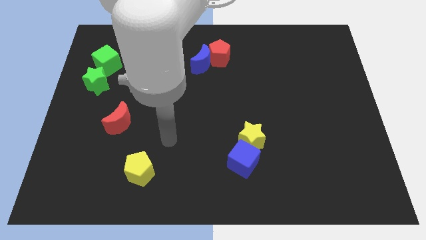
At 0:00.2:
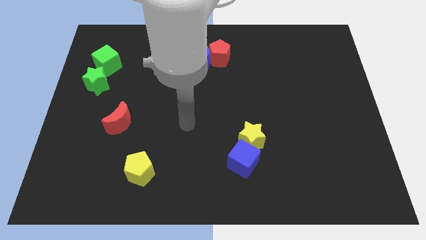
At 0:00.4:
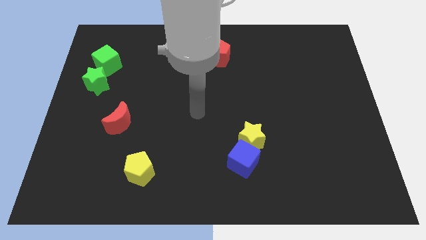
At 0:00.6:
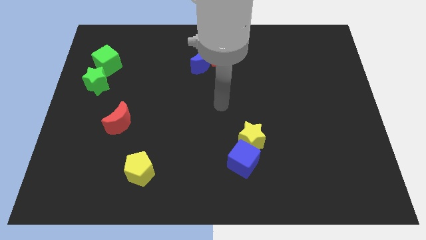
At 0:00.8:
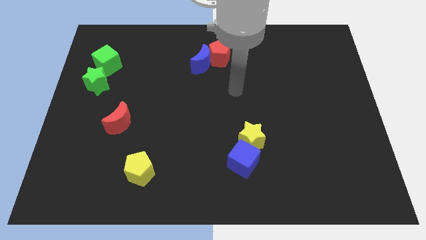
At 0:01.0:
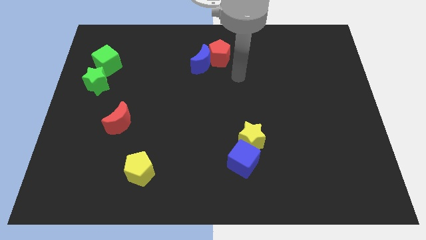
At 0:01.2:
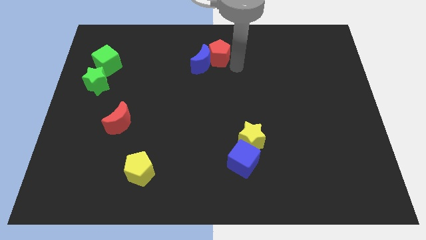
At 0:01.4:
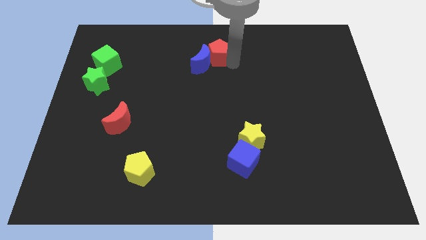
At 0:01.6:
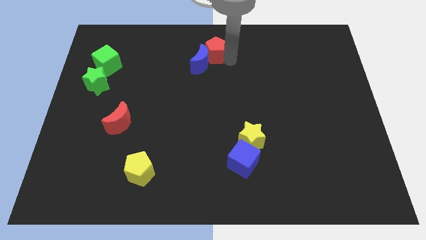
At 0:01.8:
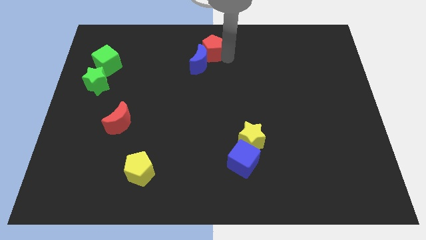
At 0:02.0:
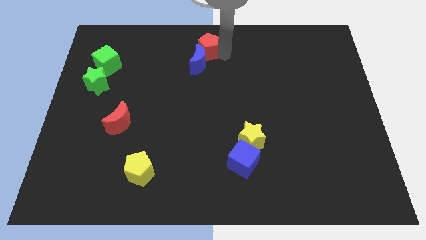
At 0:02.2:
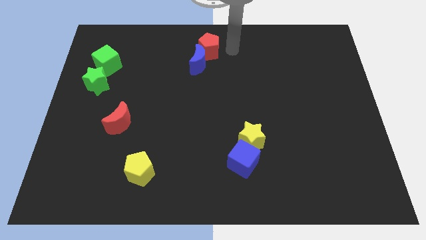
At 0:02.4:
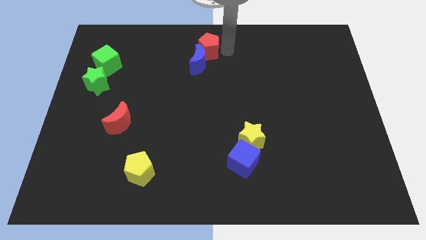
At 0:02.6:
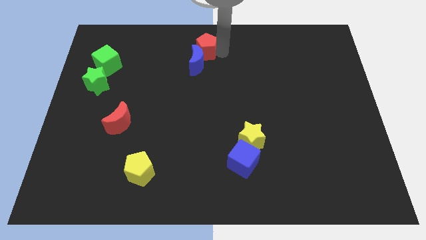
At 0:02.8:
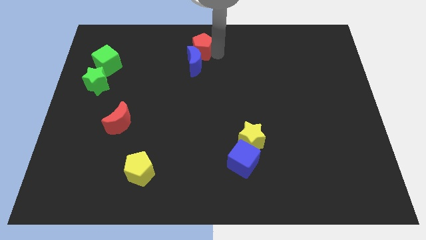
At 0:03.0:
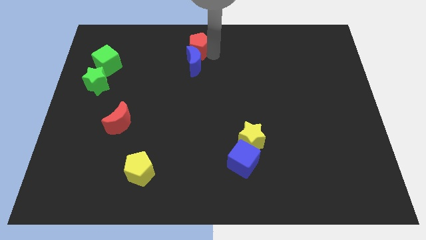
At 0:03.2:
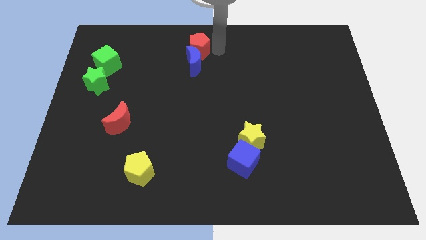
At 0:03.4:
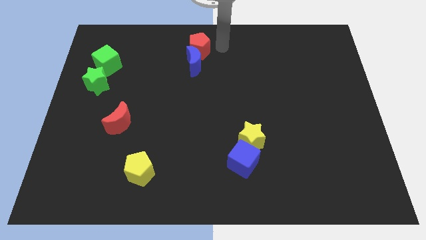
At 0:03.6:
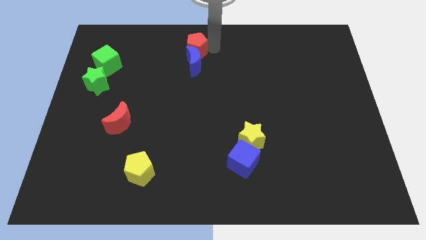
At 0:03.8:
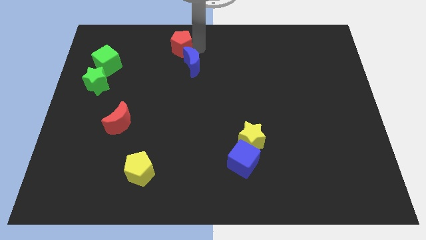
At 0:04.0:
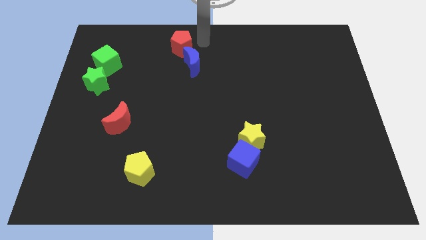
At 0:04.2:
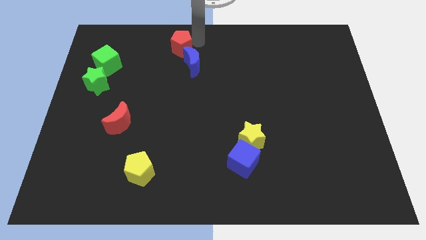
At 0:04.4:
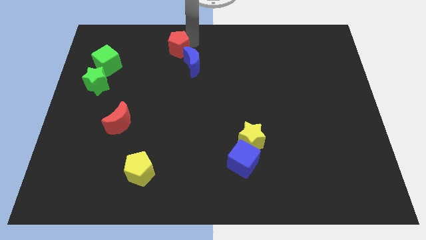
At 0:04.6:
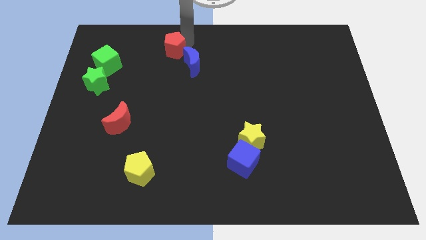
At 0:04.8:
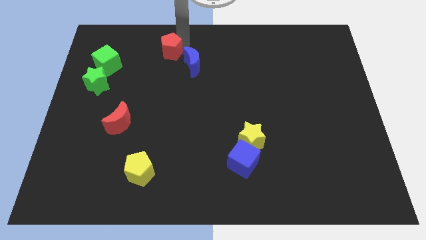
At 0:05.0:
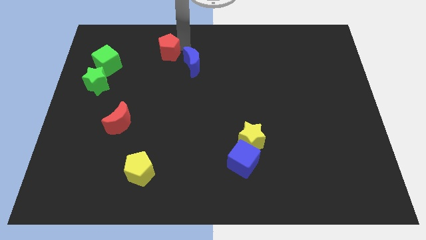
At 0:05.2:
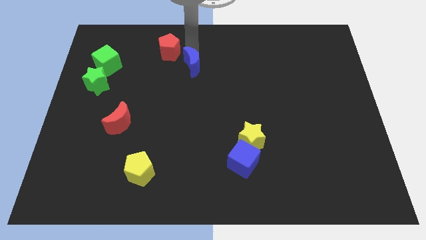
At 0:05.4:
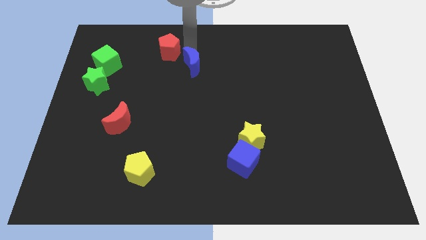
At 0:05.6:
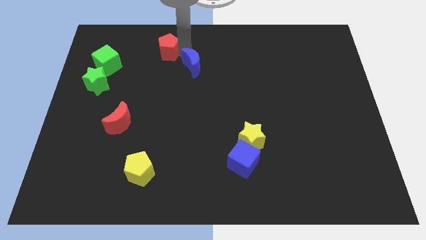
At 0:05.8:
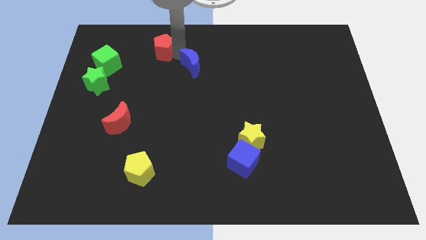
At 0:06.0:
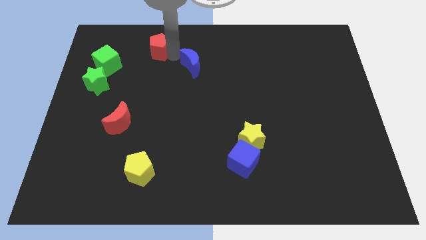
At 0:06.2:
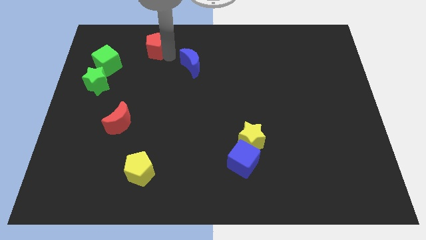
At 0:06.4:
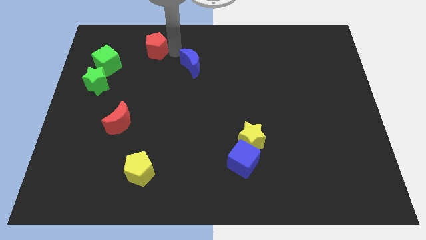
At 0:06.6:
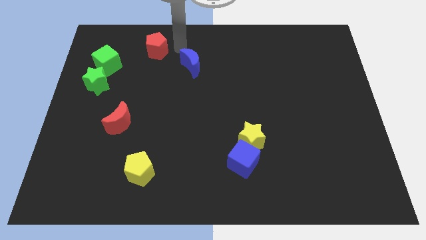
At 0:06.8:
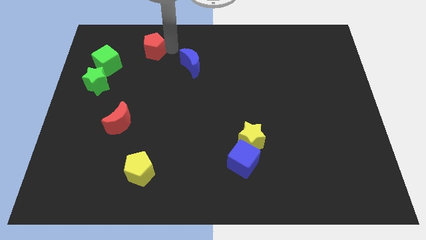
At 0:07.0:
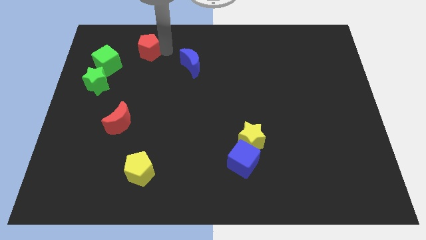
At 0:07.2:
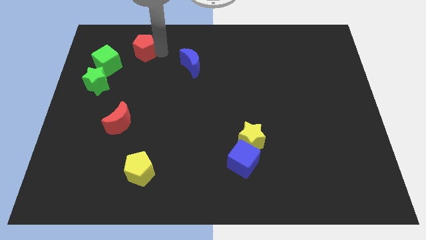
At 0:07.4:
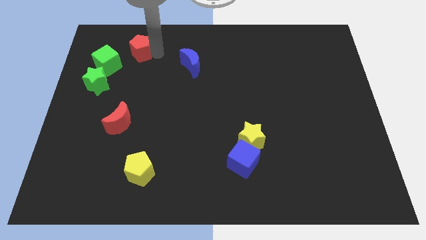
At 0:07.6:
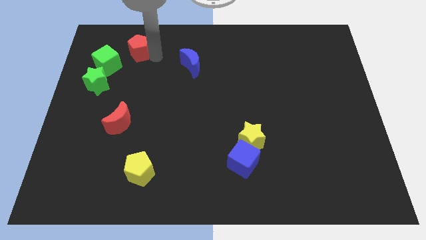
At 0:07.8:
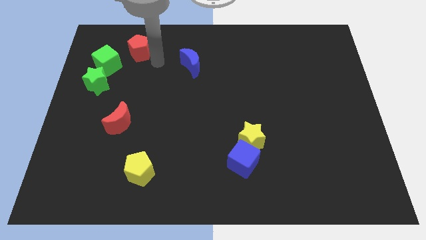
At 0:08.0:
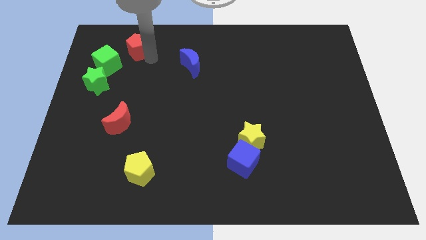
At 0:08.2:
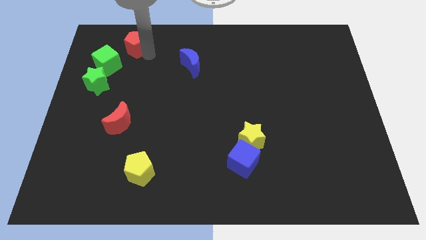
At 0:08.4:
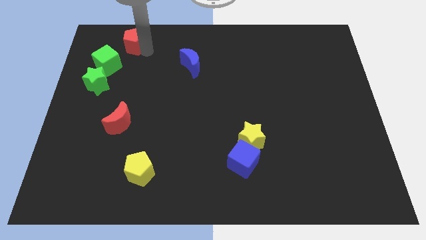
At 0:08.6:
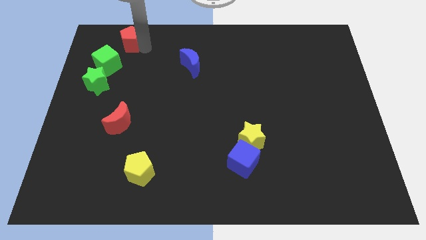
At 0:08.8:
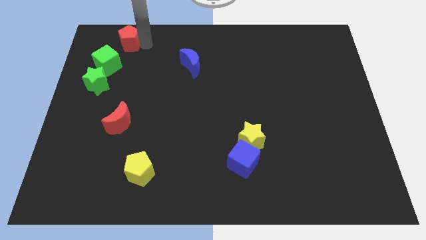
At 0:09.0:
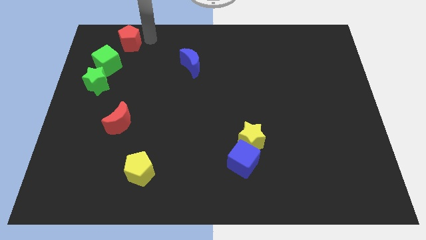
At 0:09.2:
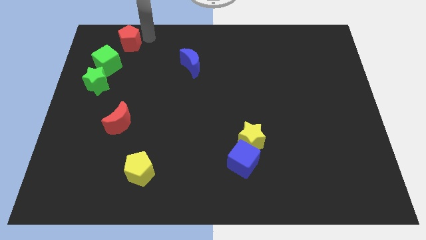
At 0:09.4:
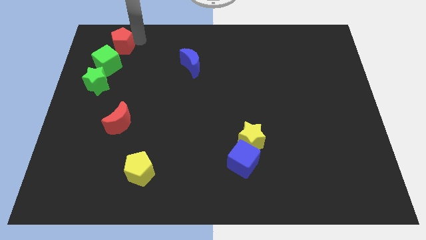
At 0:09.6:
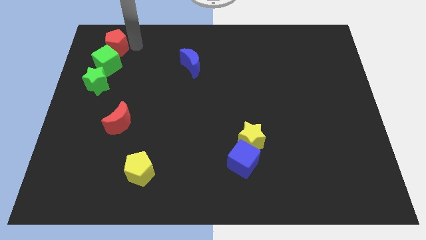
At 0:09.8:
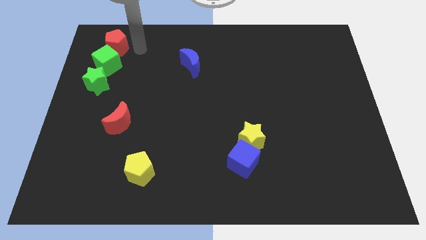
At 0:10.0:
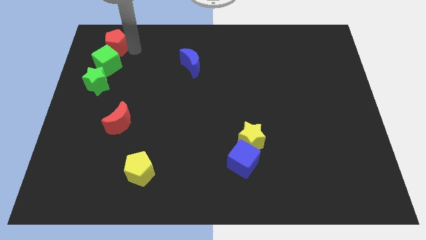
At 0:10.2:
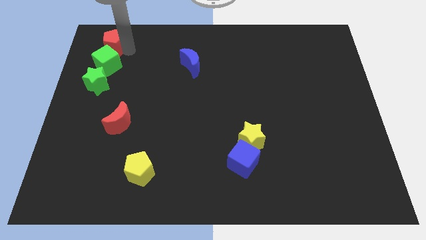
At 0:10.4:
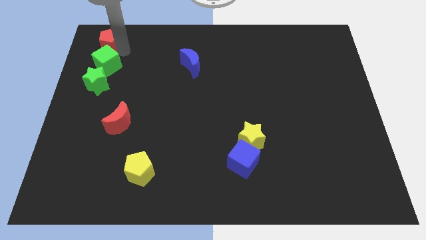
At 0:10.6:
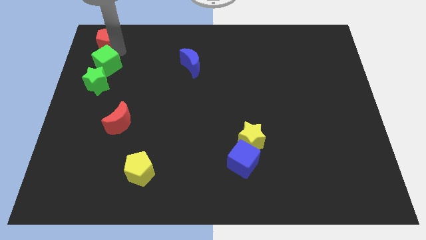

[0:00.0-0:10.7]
put the red pentagon to the top left

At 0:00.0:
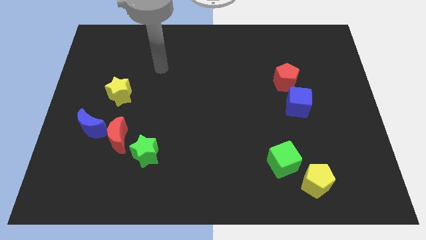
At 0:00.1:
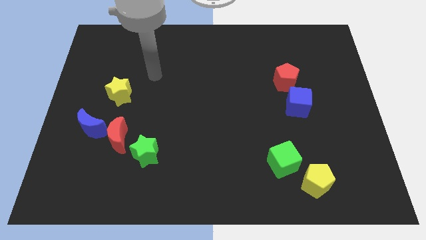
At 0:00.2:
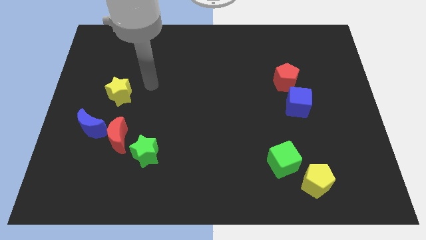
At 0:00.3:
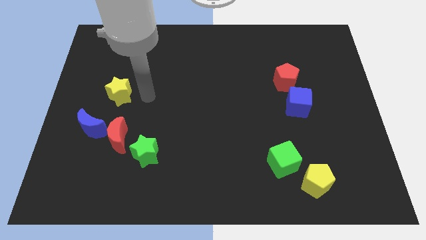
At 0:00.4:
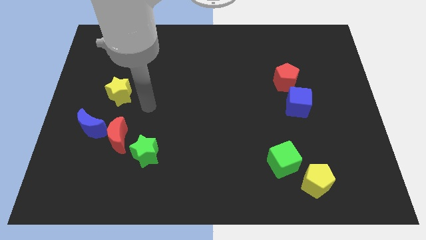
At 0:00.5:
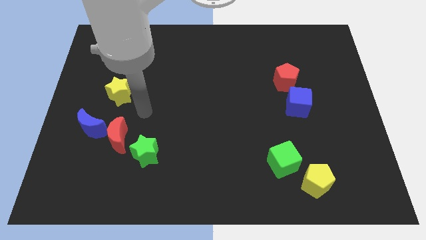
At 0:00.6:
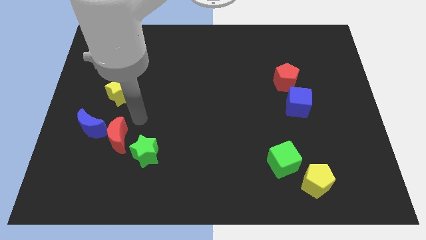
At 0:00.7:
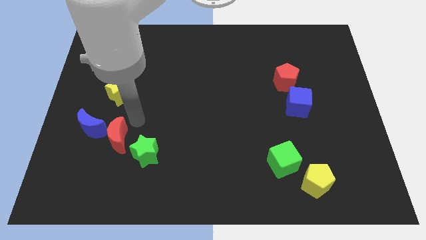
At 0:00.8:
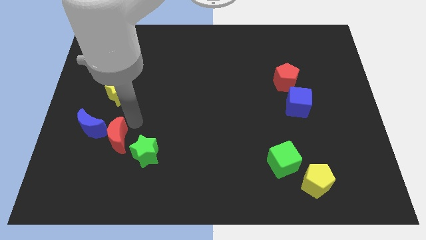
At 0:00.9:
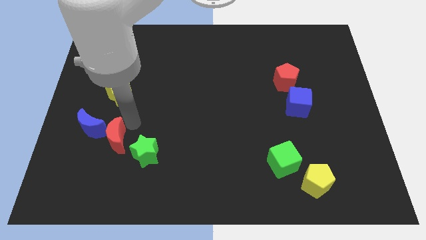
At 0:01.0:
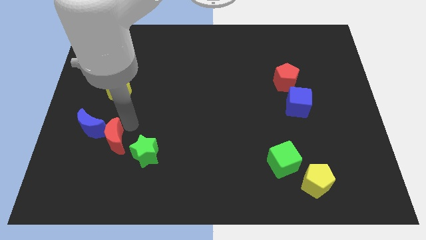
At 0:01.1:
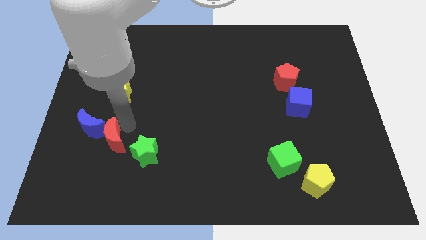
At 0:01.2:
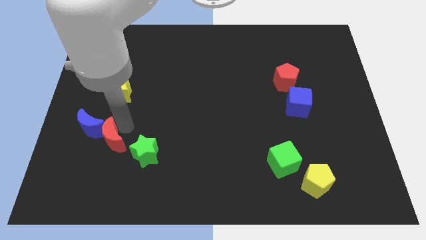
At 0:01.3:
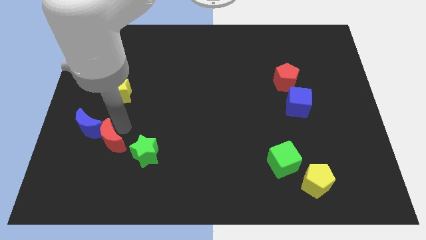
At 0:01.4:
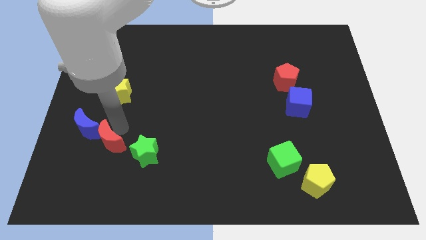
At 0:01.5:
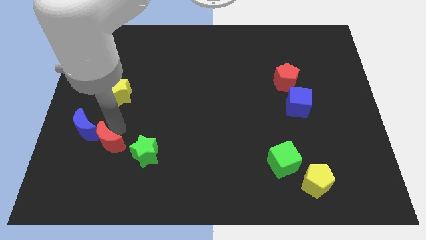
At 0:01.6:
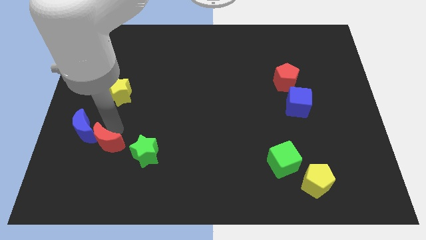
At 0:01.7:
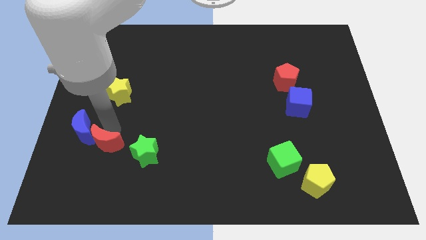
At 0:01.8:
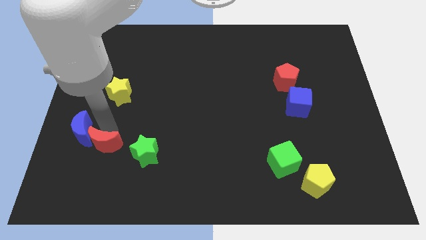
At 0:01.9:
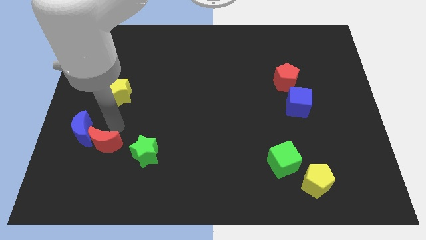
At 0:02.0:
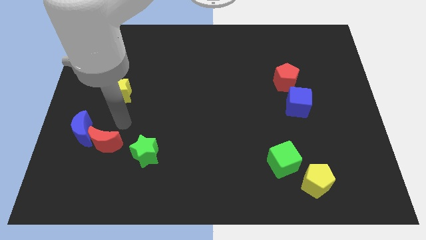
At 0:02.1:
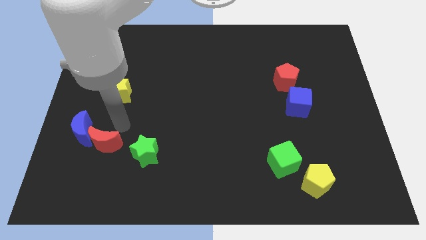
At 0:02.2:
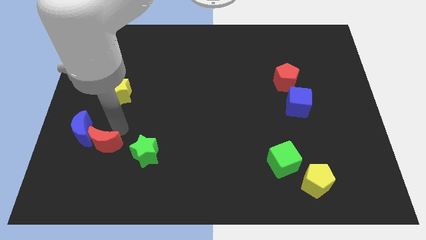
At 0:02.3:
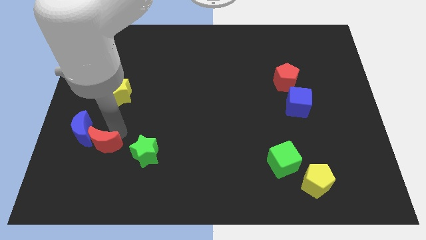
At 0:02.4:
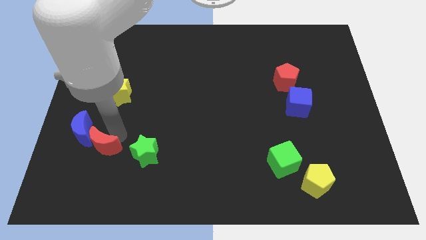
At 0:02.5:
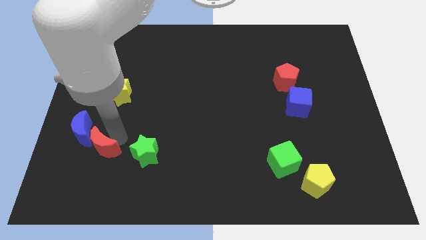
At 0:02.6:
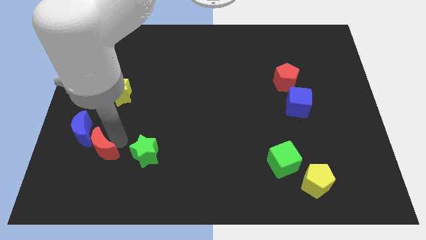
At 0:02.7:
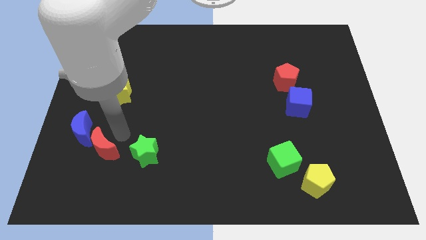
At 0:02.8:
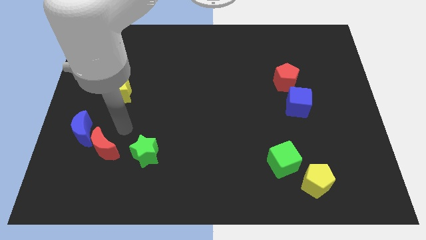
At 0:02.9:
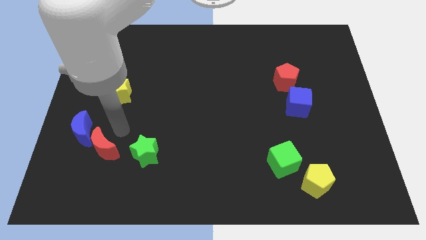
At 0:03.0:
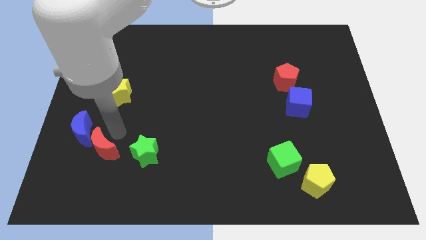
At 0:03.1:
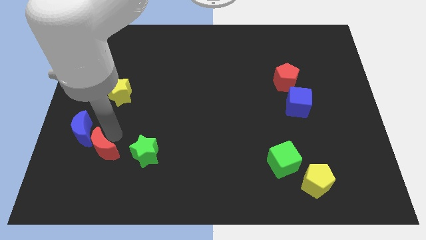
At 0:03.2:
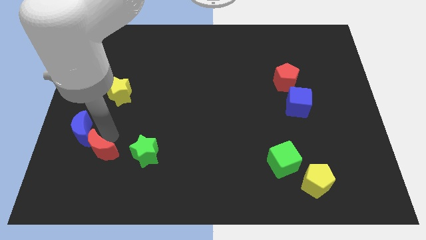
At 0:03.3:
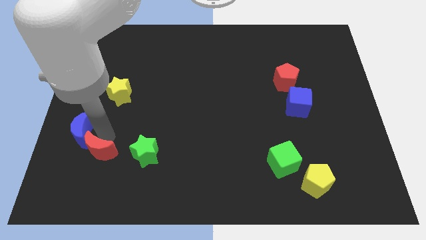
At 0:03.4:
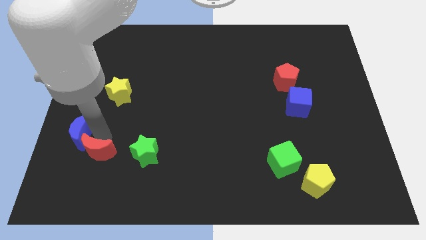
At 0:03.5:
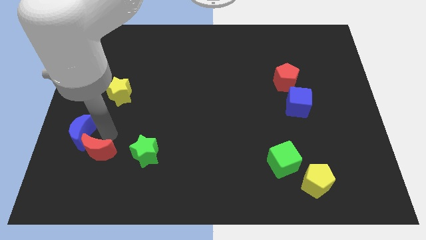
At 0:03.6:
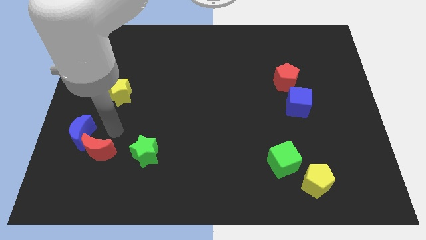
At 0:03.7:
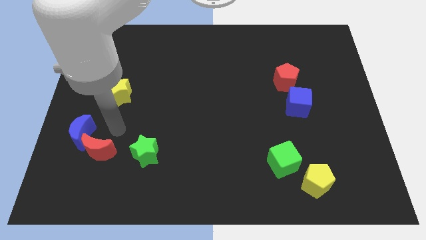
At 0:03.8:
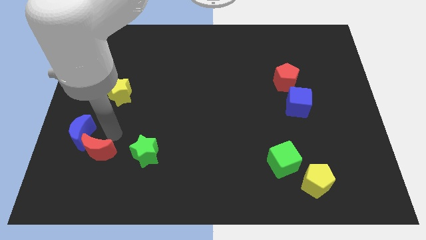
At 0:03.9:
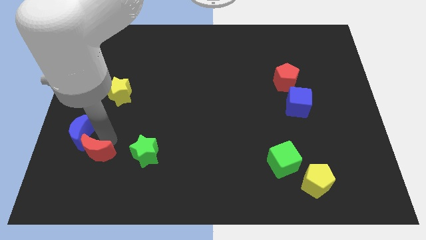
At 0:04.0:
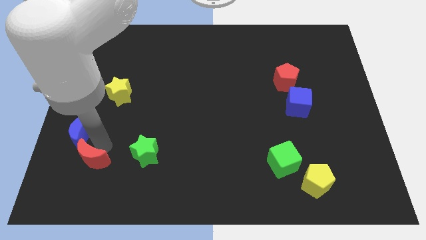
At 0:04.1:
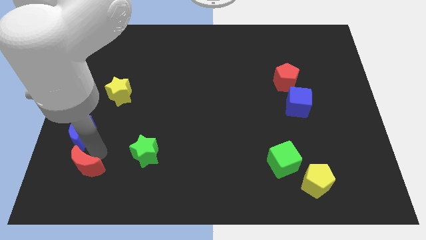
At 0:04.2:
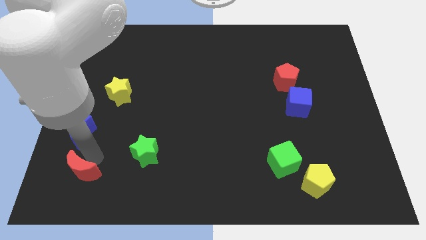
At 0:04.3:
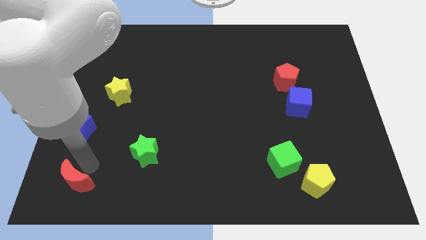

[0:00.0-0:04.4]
push the red moon to the bottom left of the board
